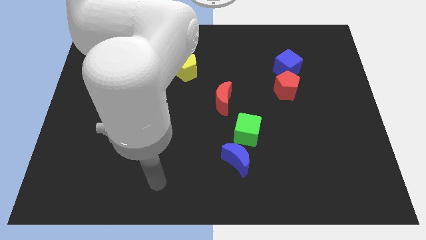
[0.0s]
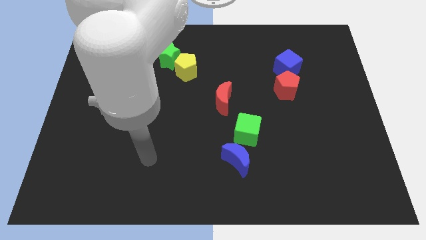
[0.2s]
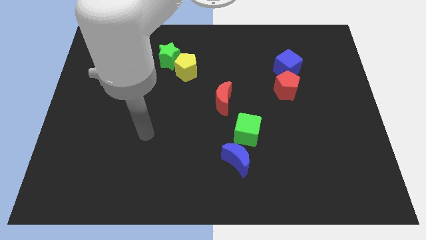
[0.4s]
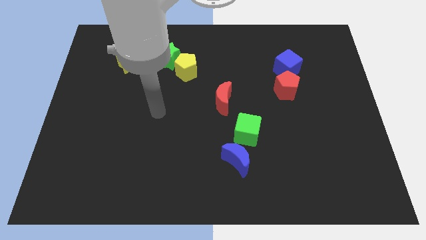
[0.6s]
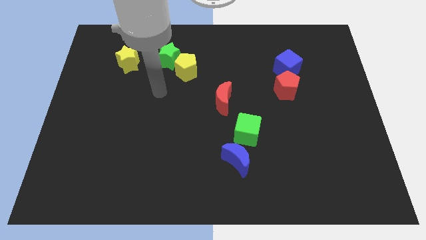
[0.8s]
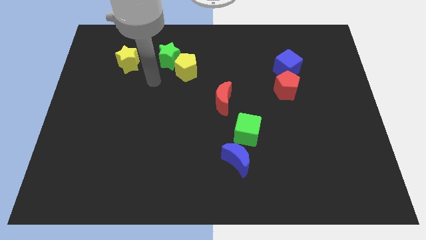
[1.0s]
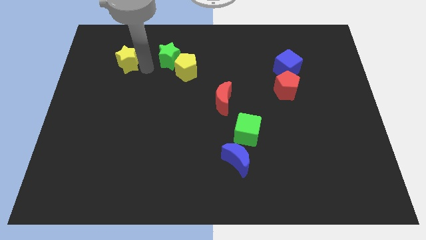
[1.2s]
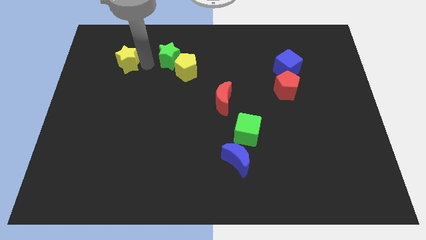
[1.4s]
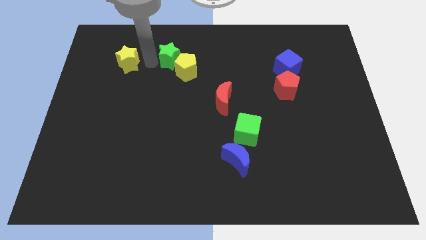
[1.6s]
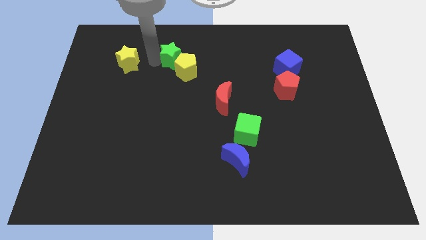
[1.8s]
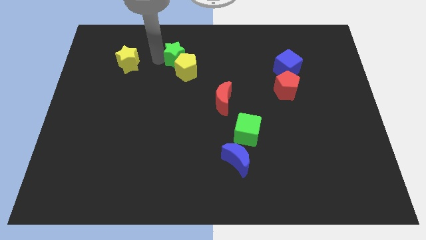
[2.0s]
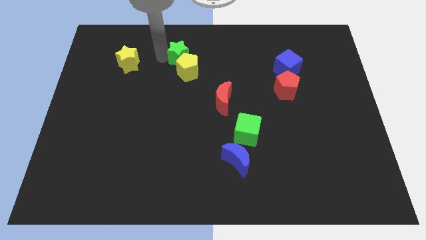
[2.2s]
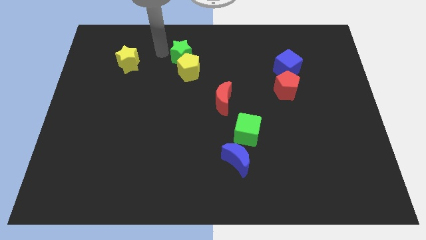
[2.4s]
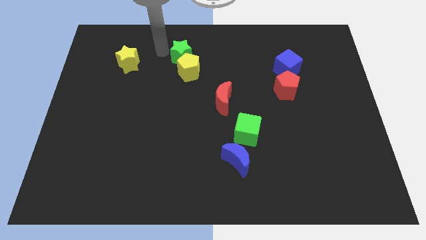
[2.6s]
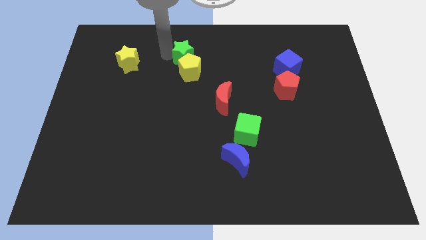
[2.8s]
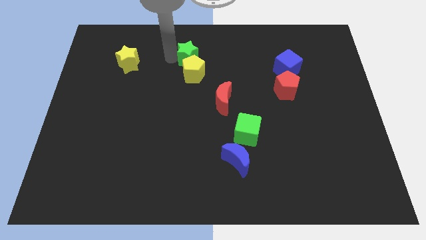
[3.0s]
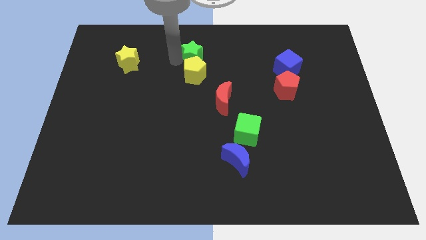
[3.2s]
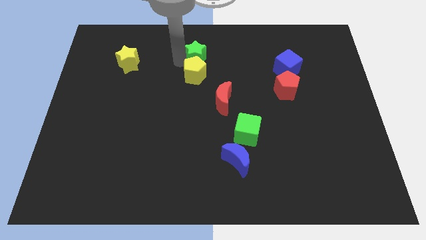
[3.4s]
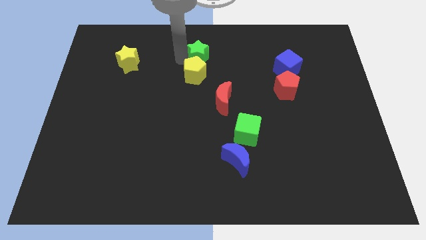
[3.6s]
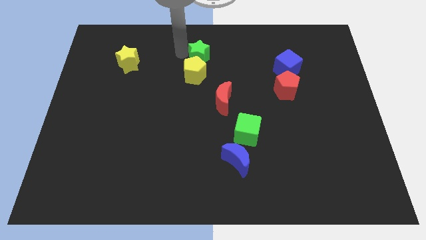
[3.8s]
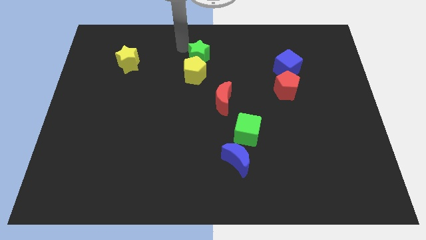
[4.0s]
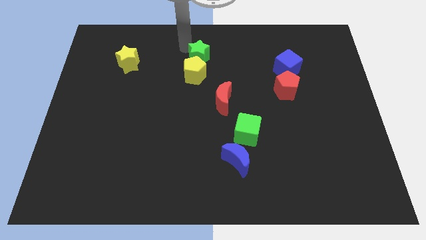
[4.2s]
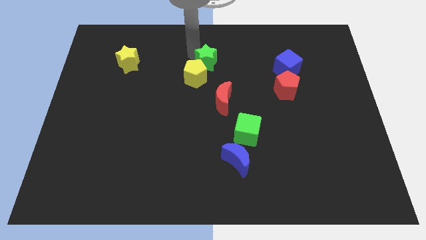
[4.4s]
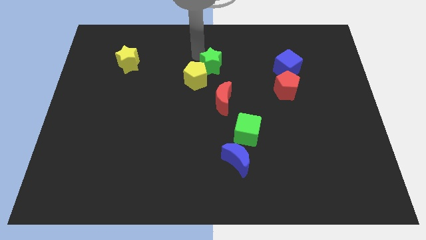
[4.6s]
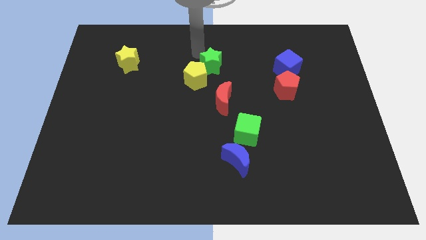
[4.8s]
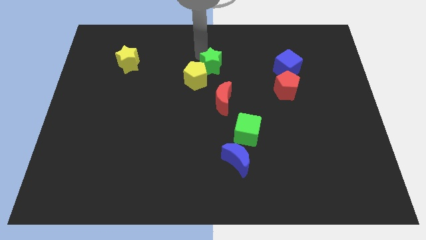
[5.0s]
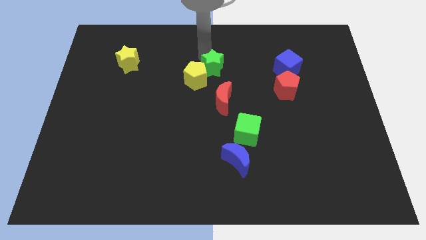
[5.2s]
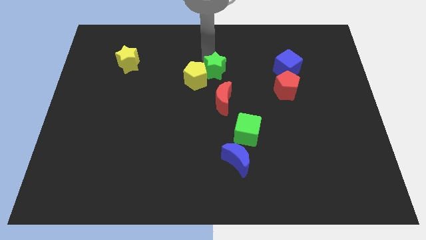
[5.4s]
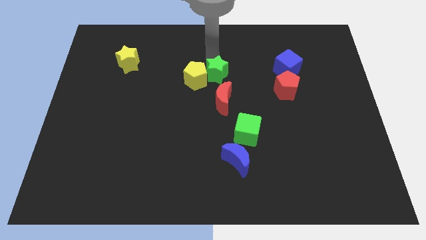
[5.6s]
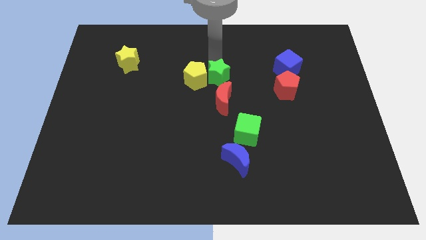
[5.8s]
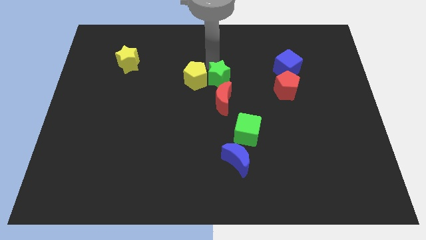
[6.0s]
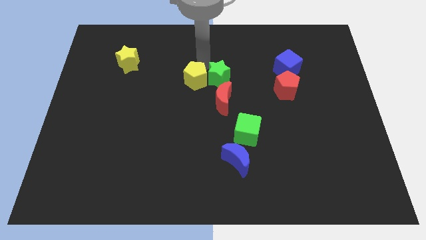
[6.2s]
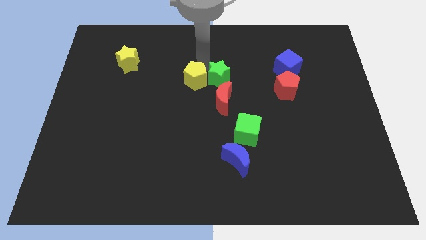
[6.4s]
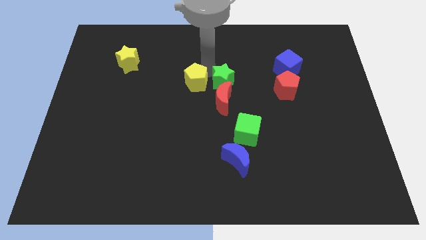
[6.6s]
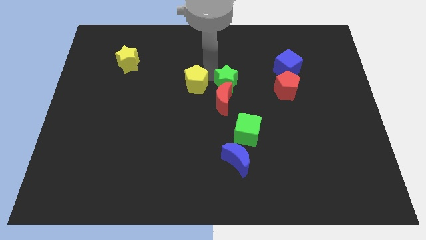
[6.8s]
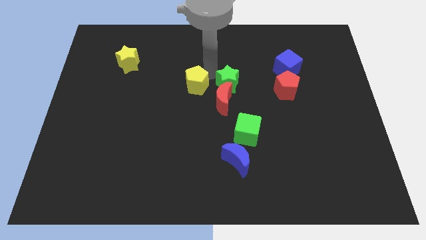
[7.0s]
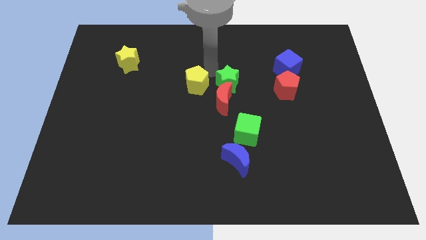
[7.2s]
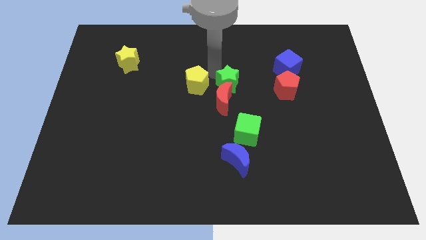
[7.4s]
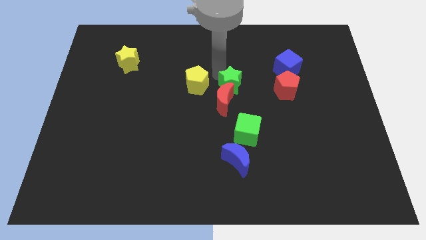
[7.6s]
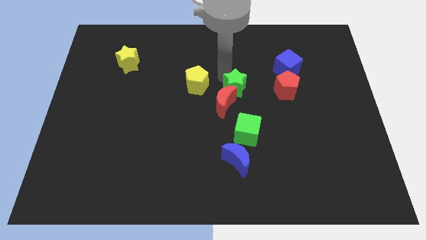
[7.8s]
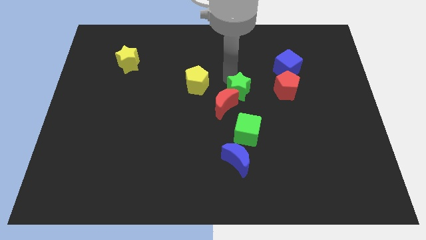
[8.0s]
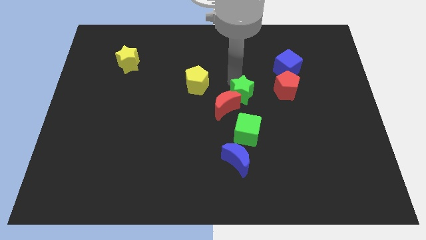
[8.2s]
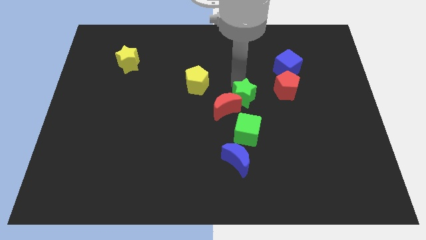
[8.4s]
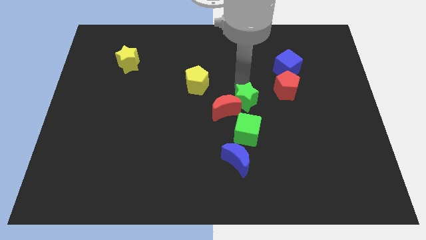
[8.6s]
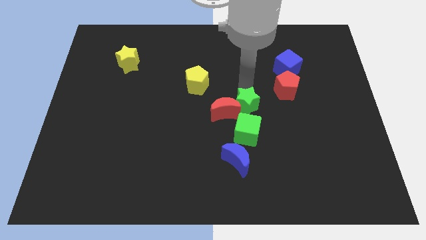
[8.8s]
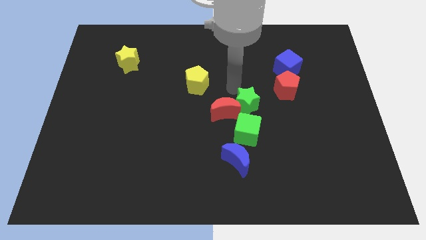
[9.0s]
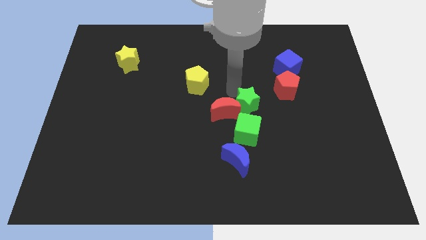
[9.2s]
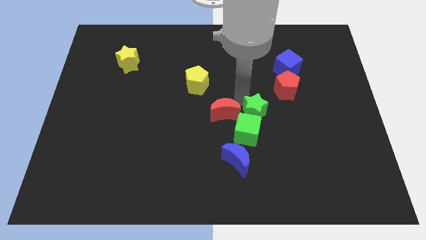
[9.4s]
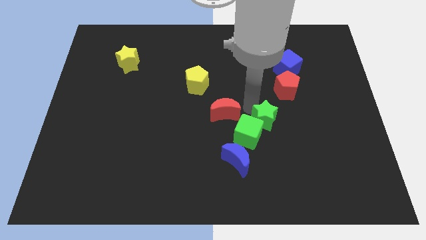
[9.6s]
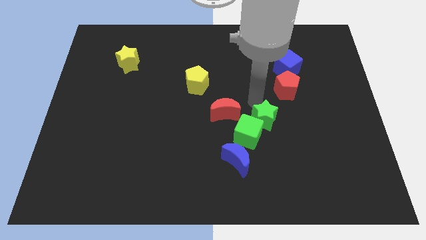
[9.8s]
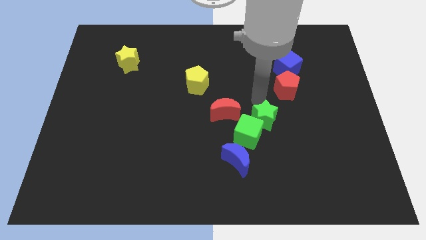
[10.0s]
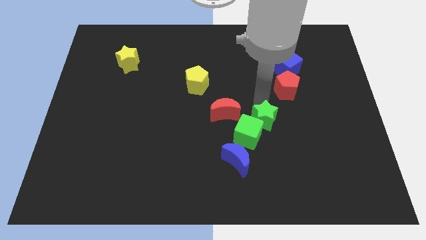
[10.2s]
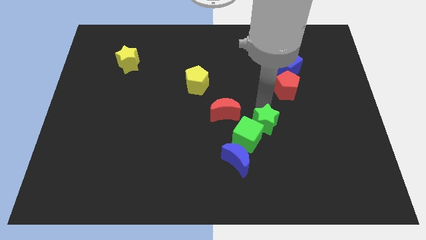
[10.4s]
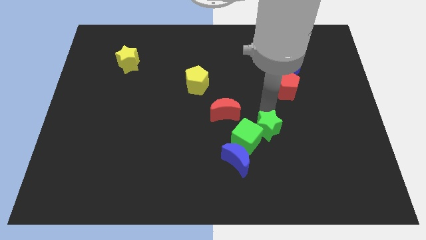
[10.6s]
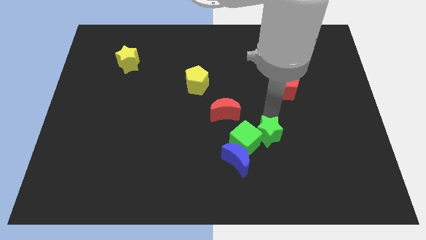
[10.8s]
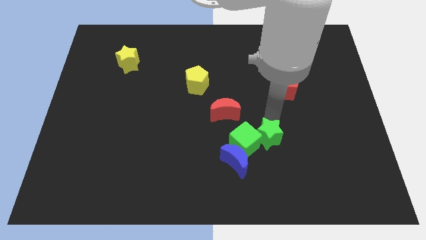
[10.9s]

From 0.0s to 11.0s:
put the green star diagonally down and to the right of the green cube

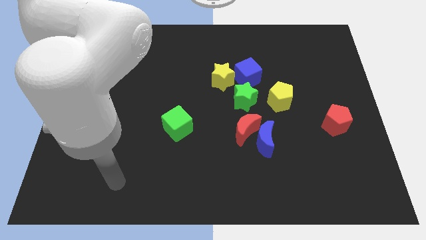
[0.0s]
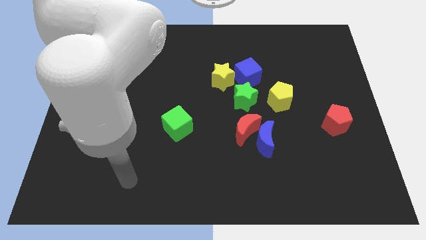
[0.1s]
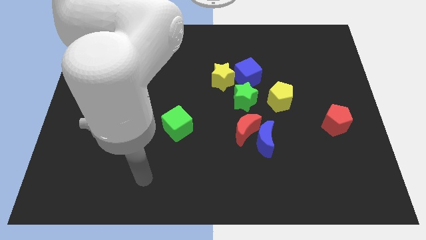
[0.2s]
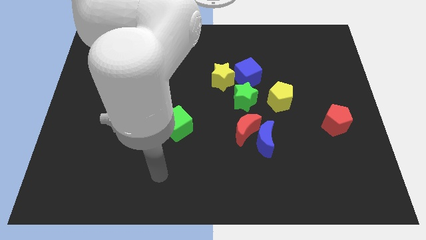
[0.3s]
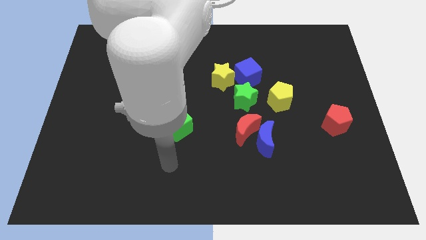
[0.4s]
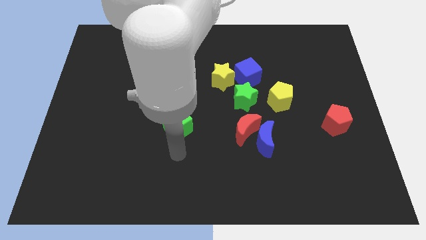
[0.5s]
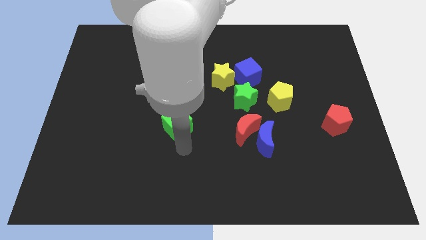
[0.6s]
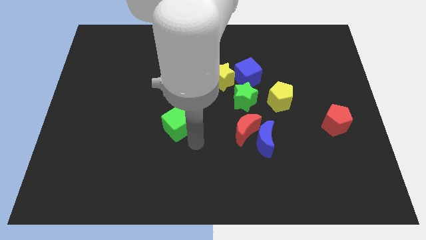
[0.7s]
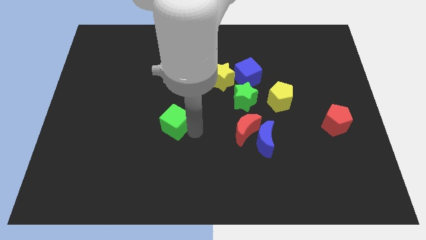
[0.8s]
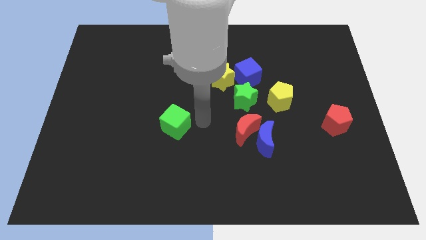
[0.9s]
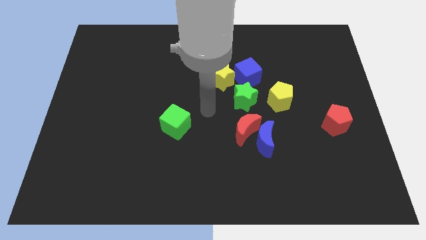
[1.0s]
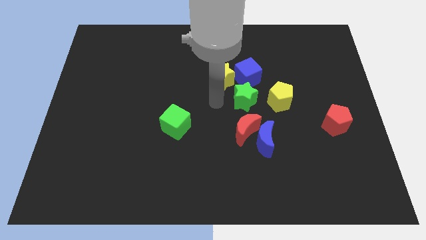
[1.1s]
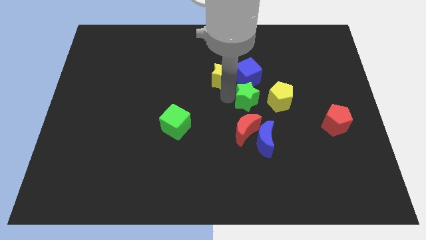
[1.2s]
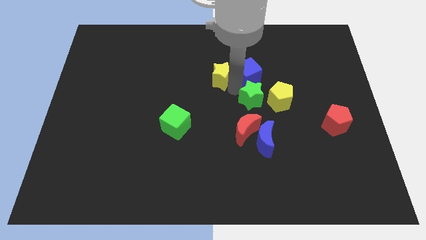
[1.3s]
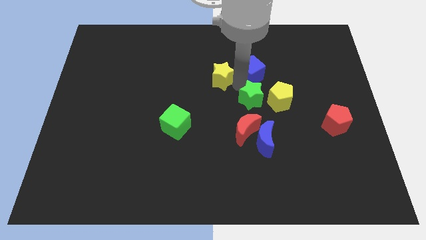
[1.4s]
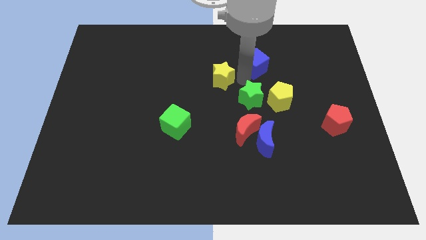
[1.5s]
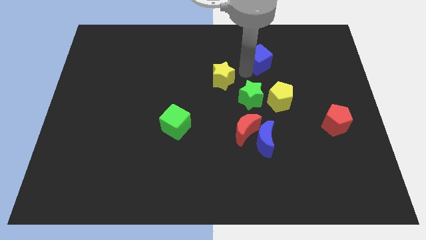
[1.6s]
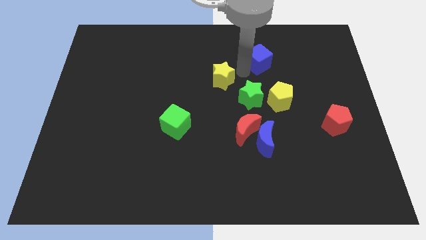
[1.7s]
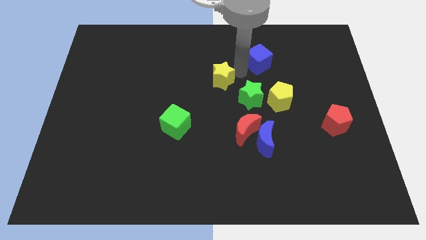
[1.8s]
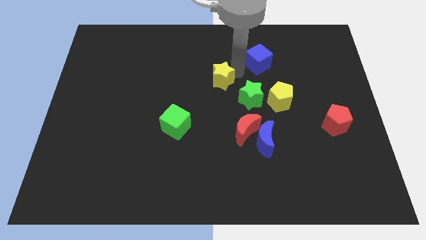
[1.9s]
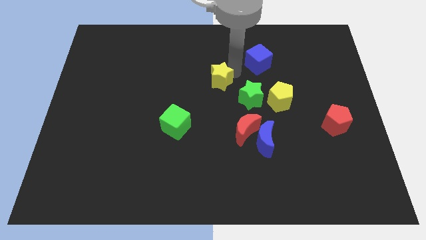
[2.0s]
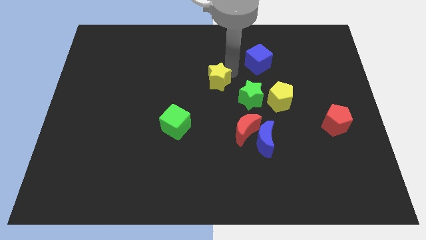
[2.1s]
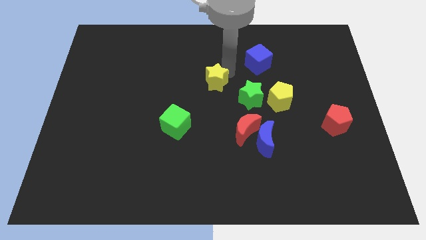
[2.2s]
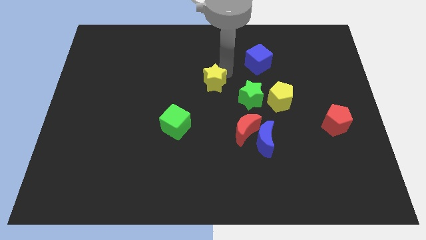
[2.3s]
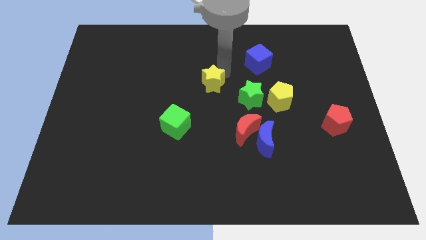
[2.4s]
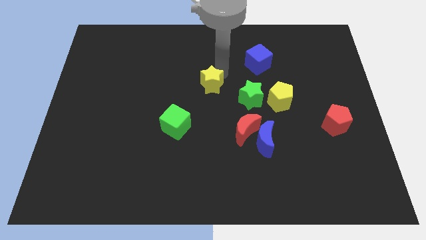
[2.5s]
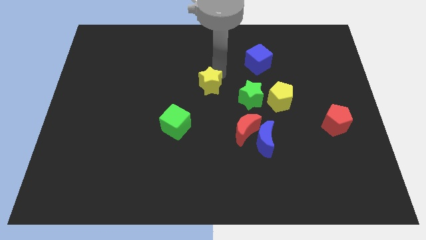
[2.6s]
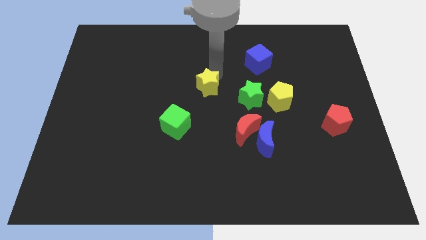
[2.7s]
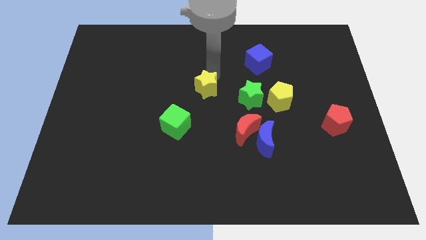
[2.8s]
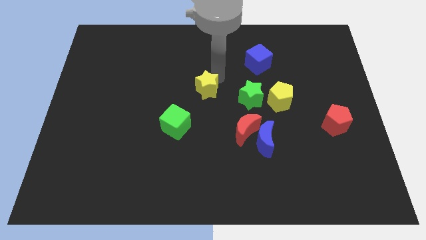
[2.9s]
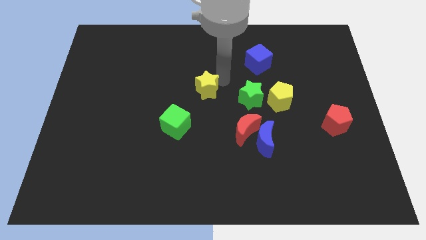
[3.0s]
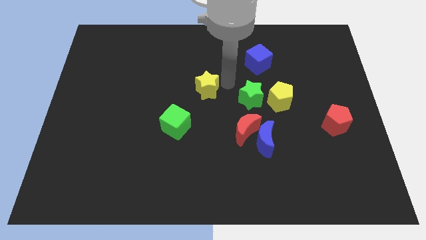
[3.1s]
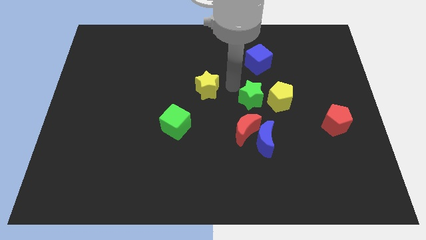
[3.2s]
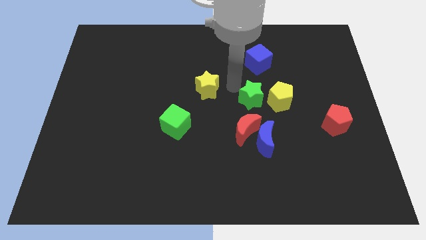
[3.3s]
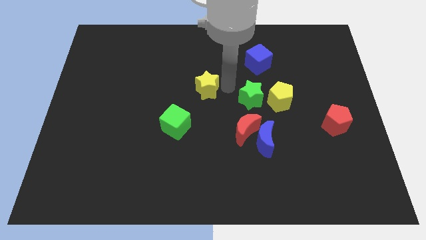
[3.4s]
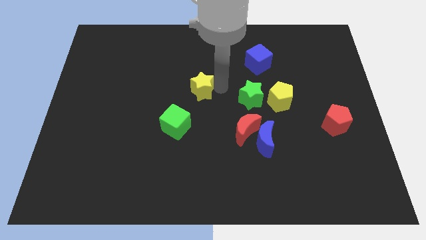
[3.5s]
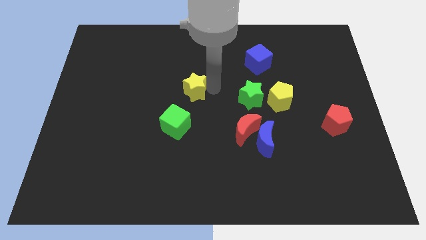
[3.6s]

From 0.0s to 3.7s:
push the yellow star to the top side of the green cube
